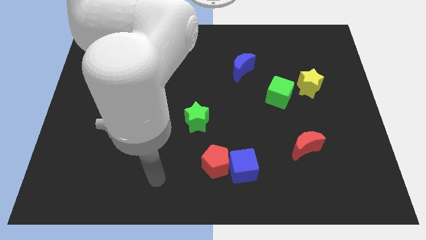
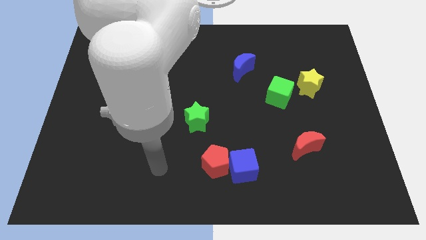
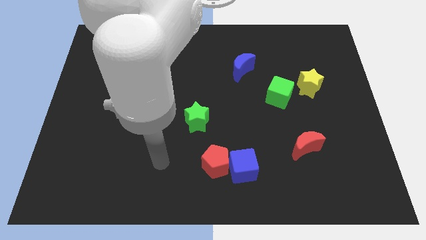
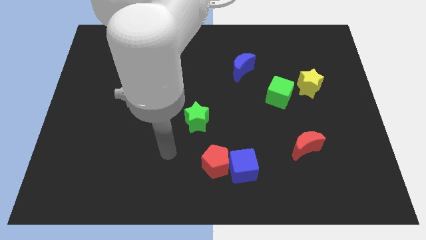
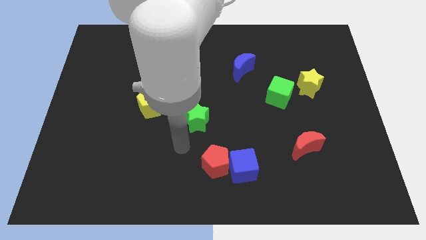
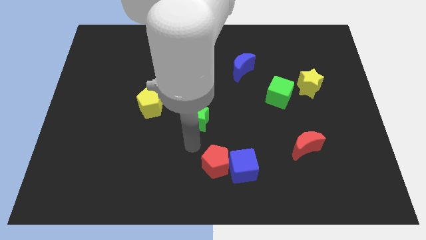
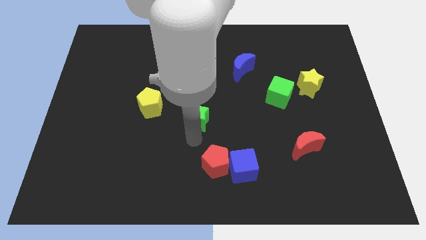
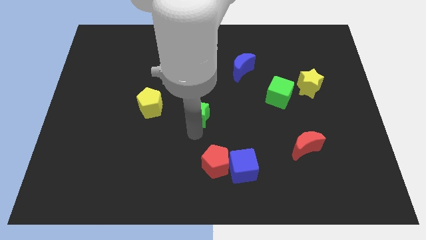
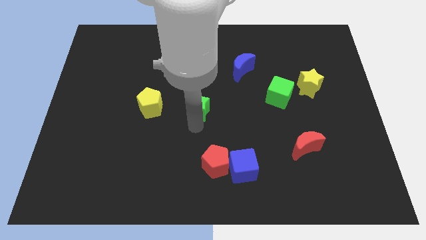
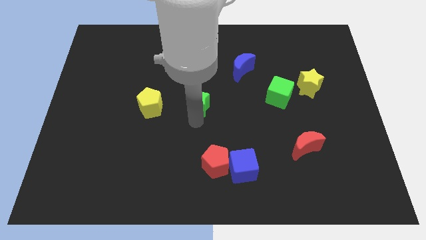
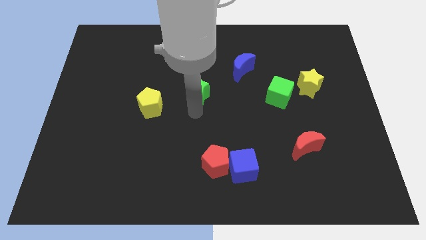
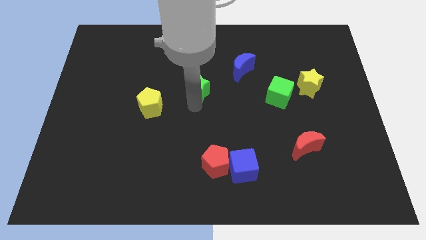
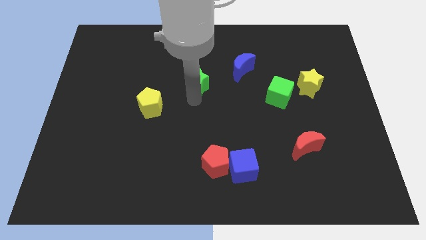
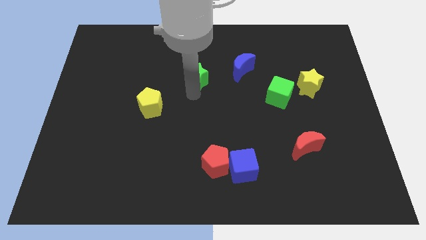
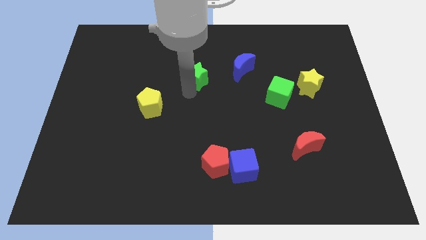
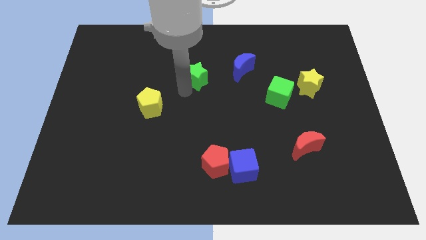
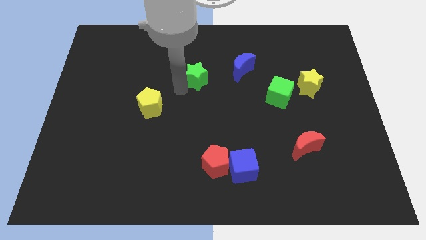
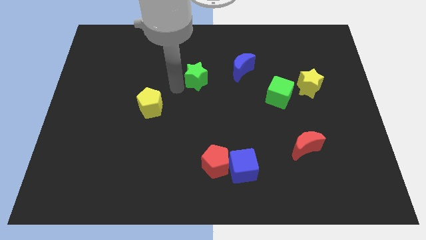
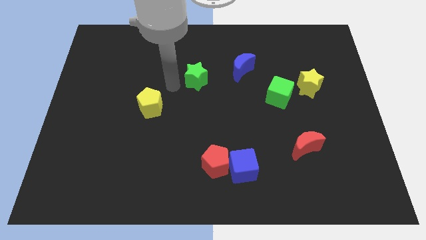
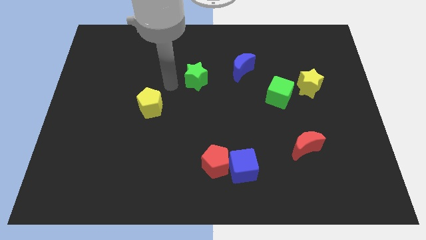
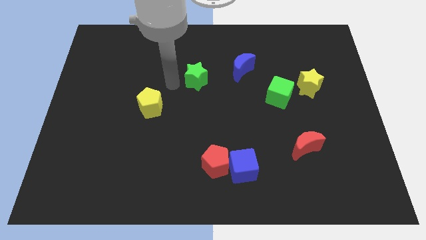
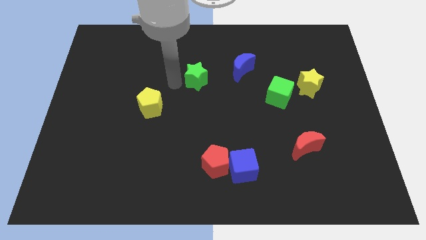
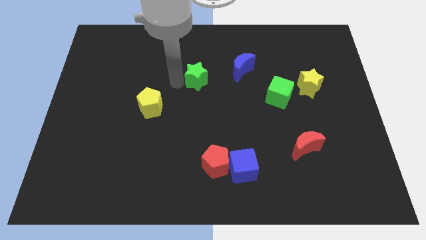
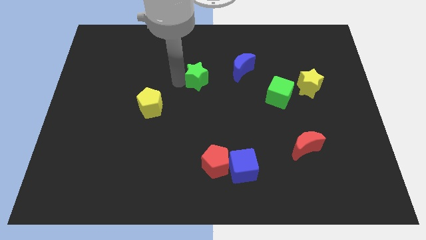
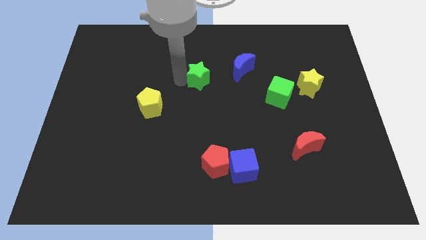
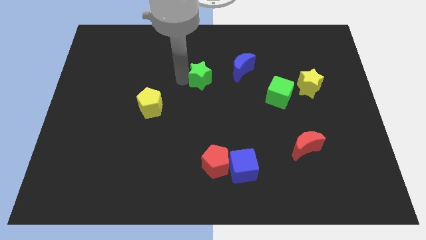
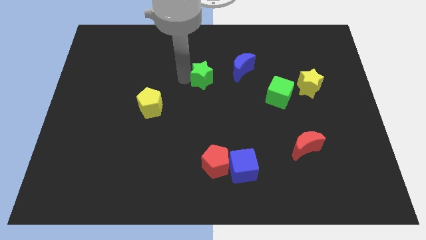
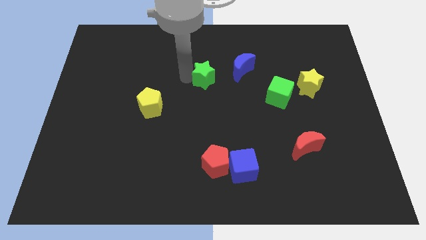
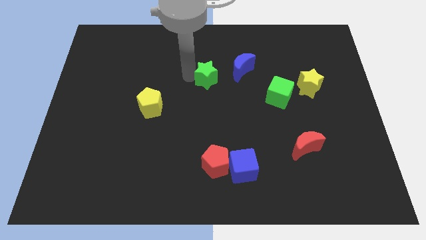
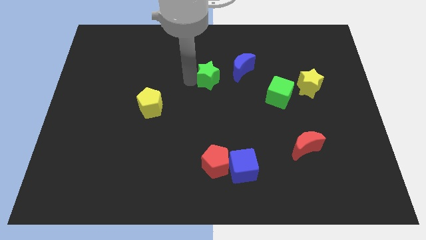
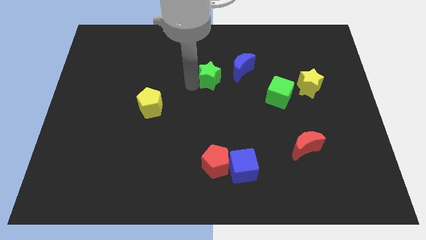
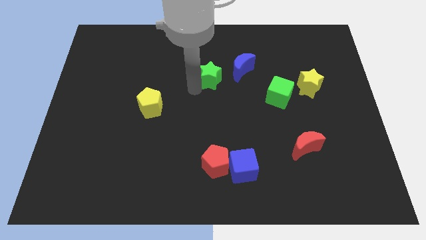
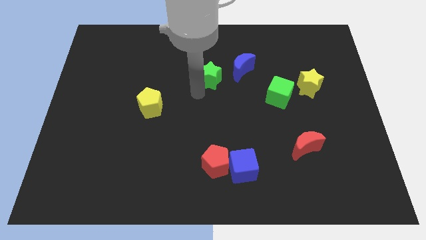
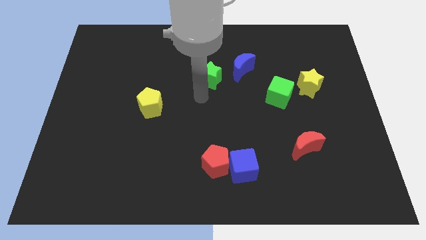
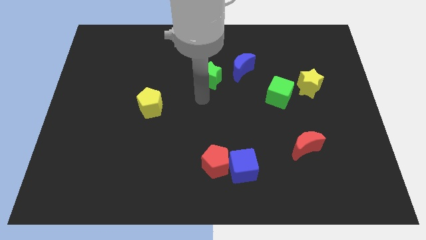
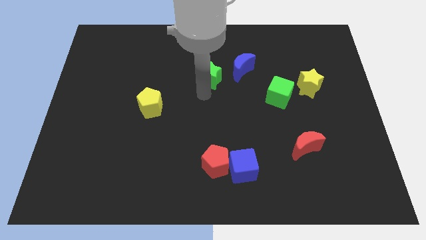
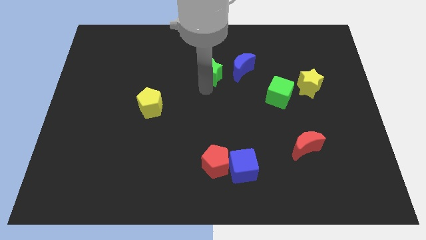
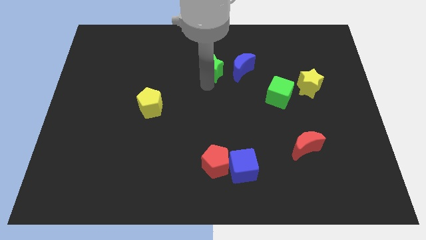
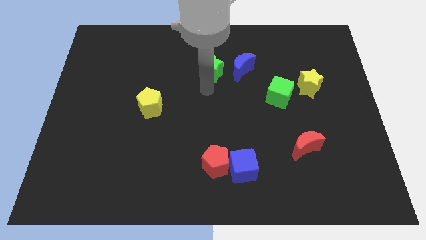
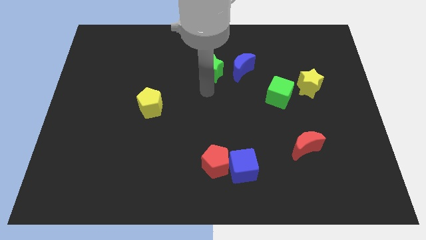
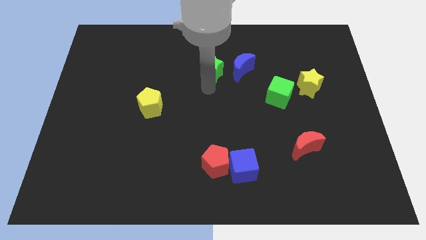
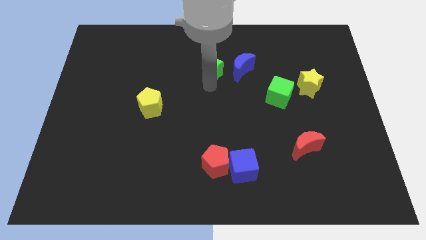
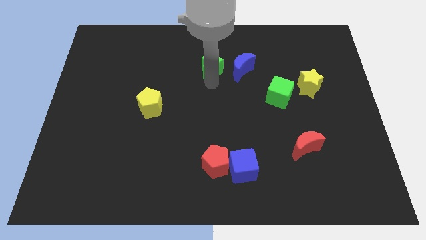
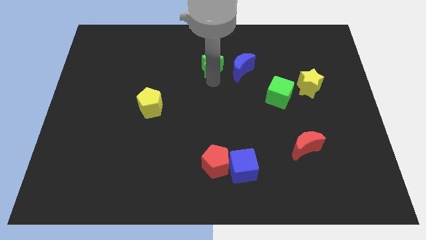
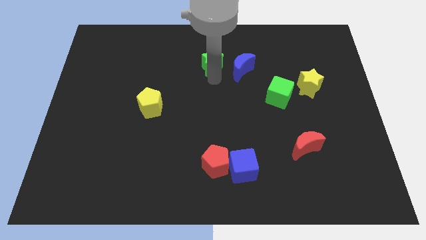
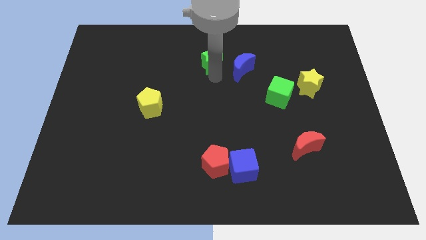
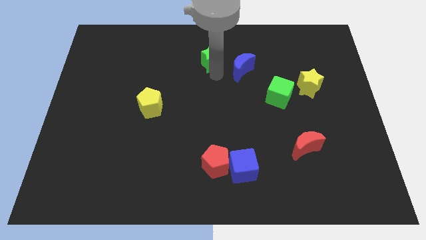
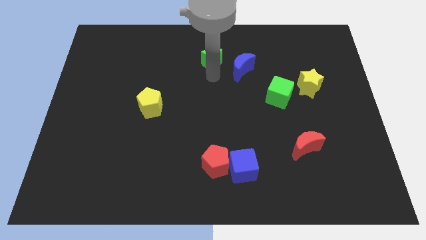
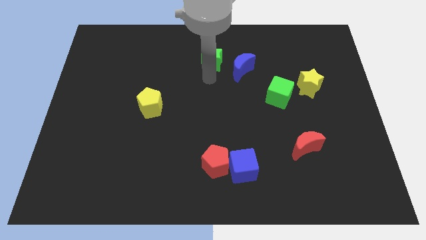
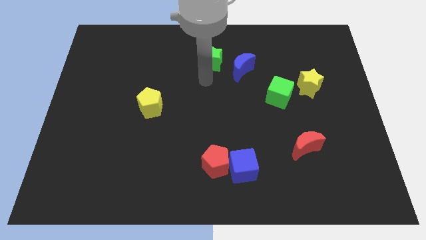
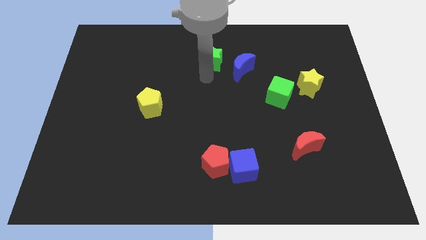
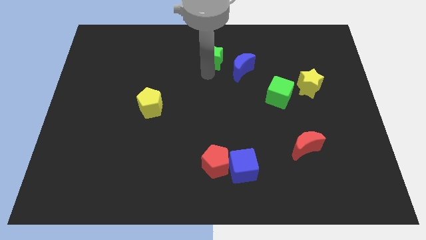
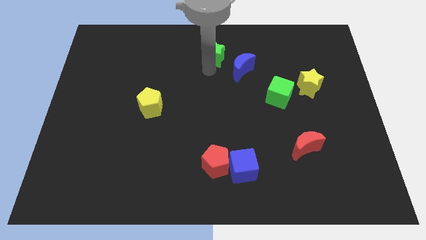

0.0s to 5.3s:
put the green star to the towards your base

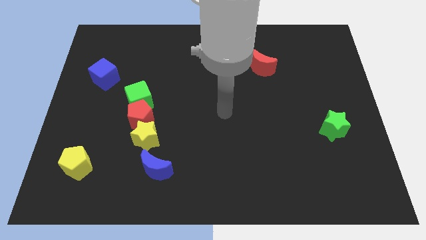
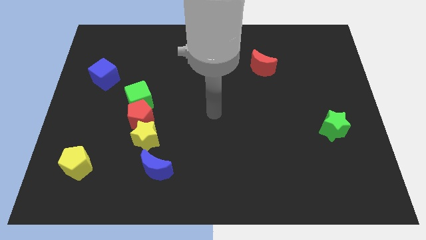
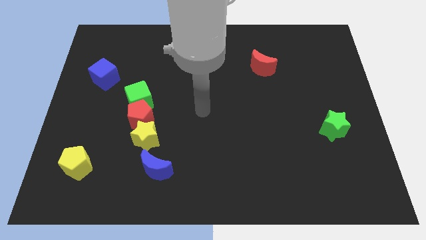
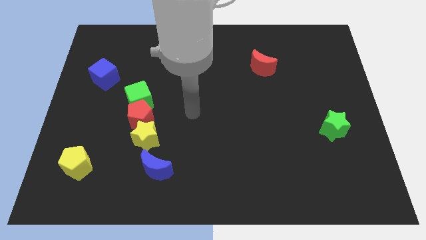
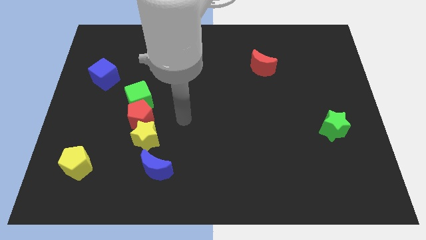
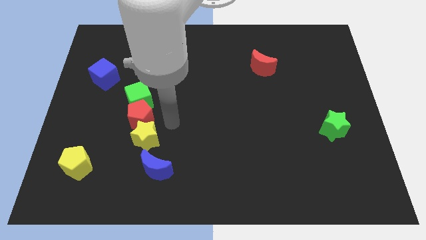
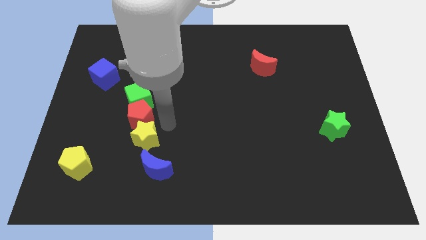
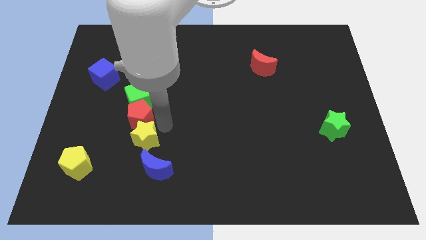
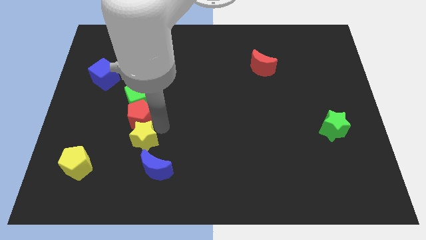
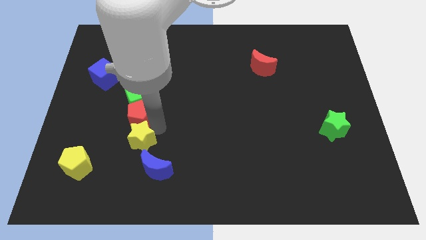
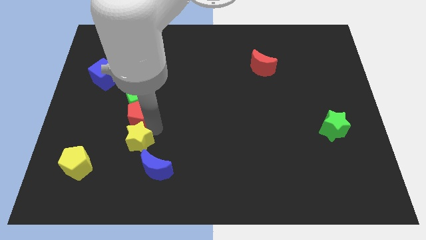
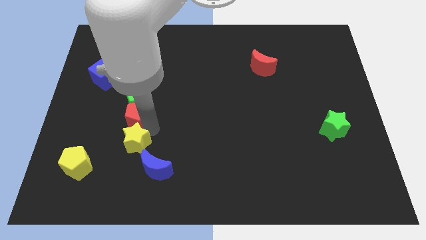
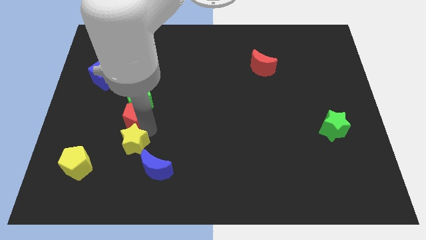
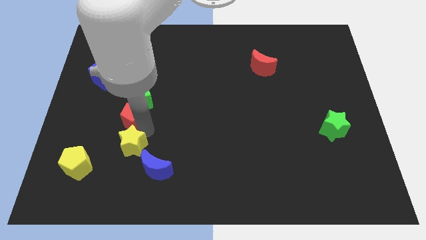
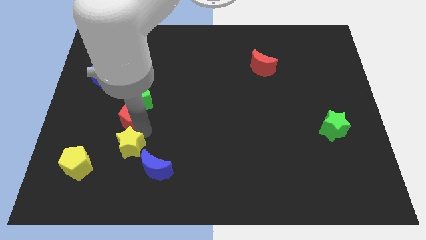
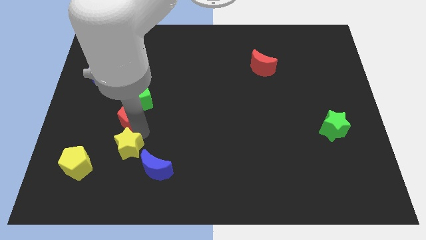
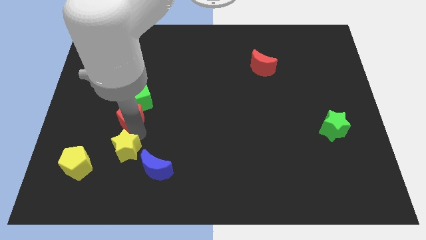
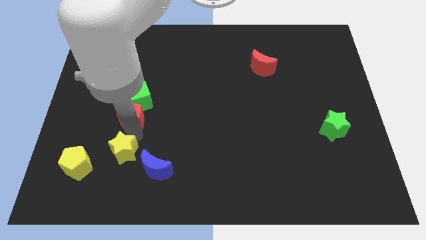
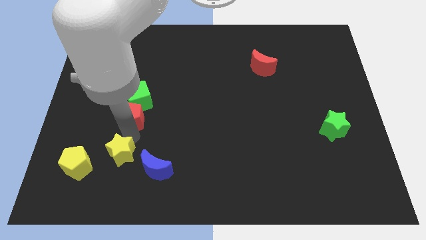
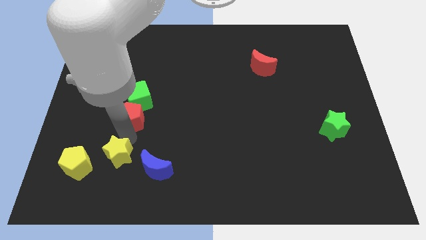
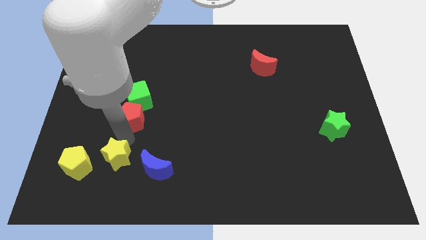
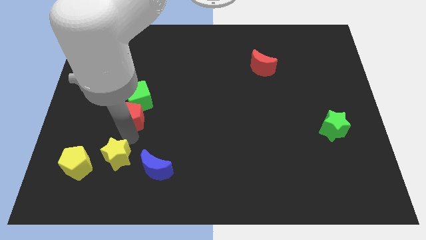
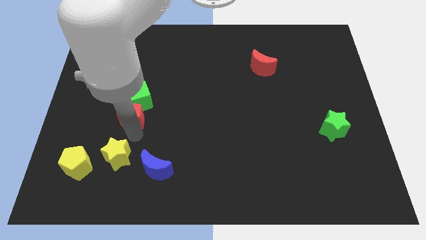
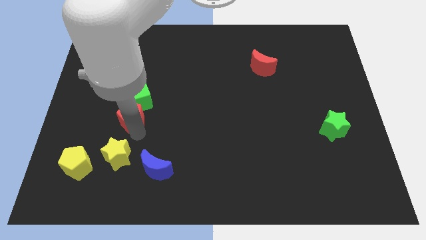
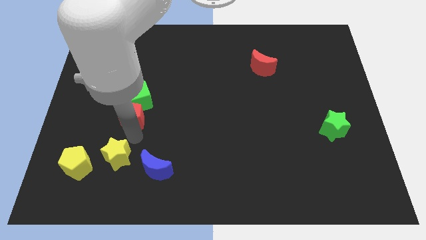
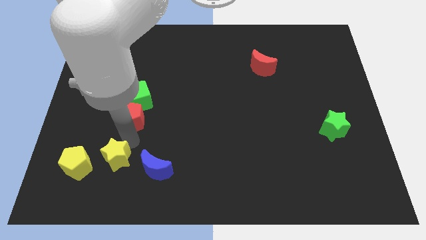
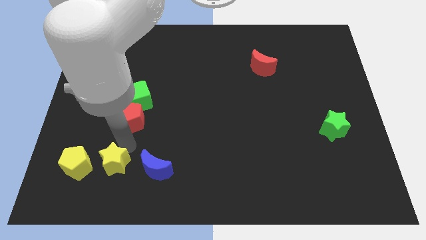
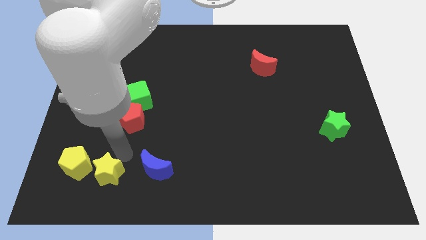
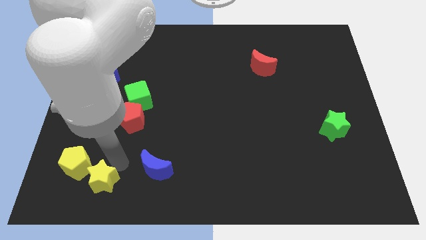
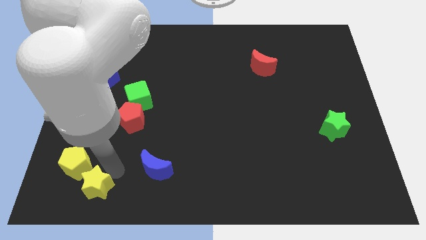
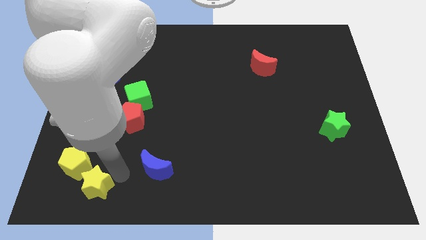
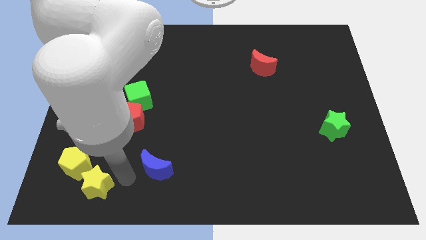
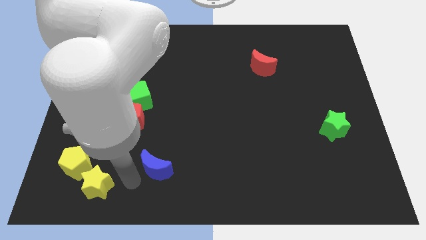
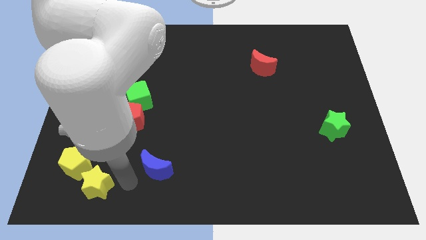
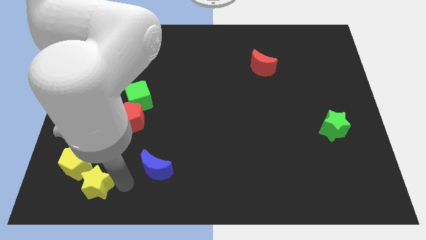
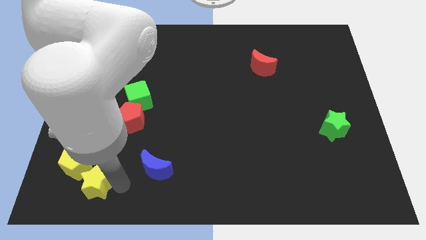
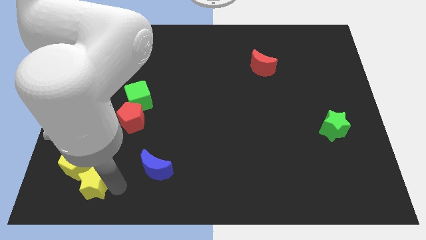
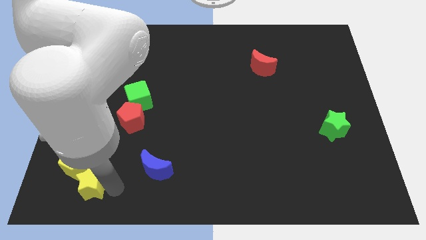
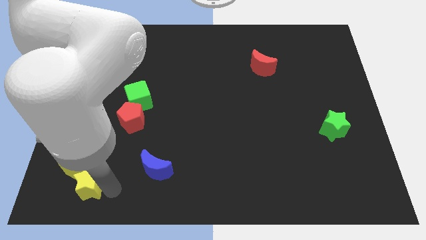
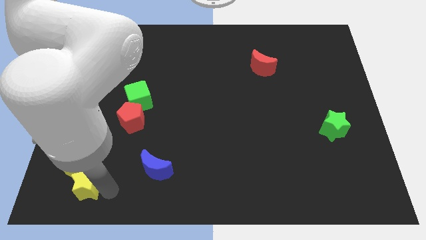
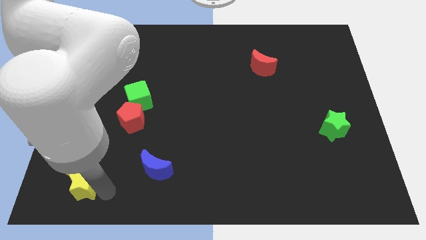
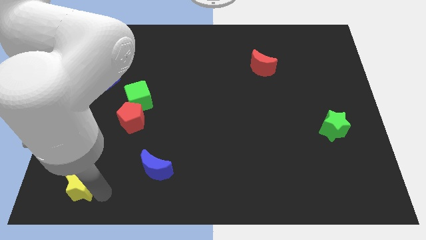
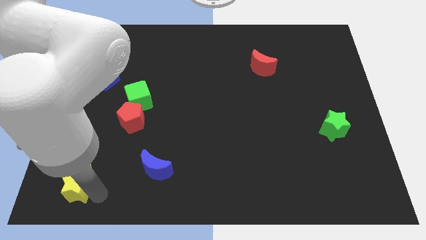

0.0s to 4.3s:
move the yellow star to the bottom left corner
